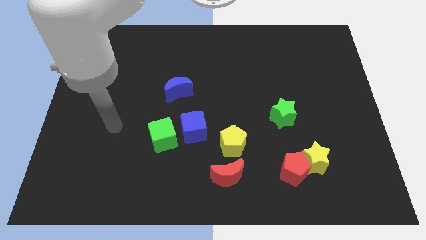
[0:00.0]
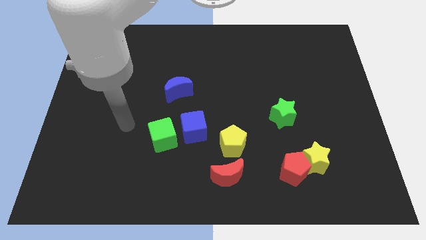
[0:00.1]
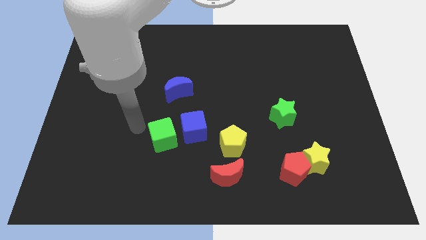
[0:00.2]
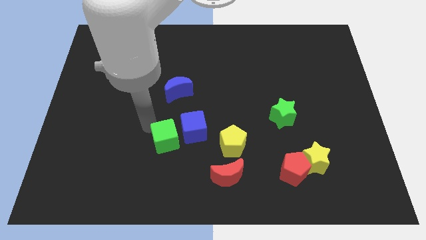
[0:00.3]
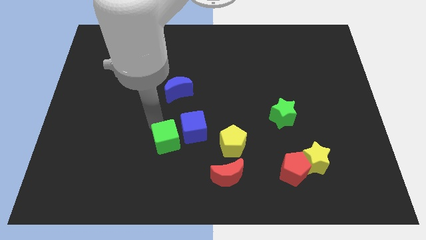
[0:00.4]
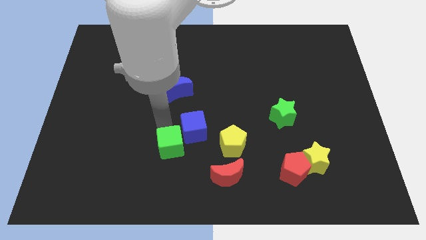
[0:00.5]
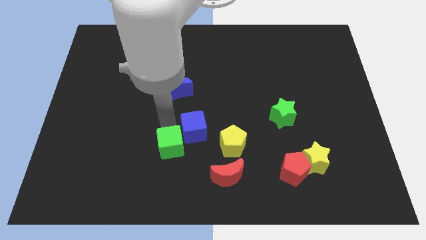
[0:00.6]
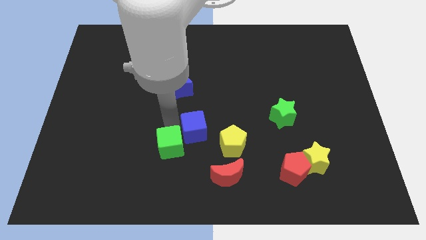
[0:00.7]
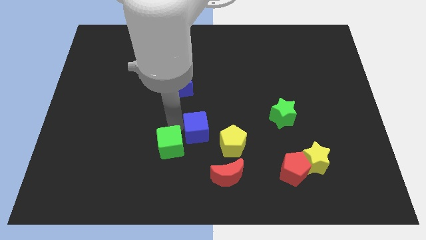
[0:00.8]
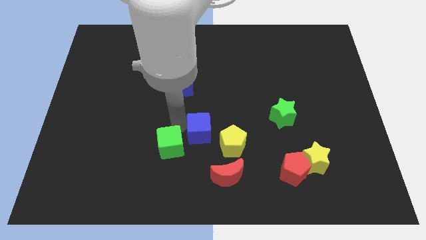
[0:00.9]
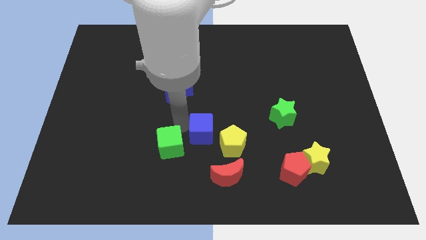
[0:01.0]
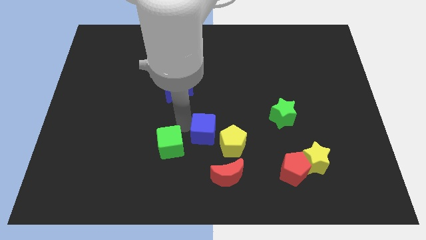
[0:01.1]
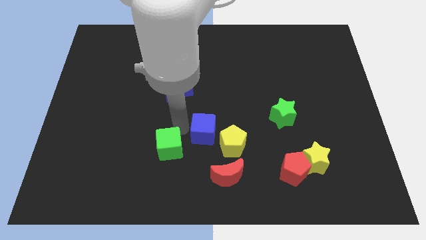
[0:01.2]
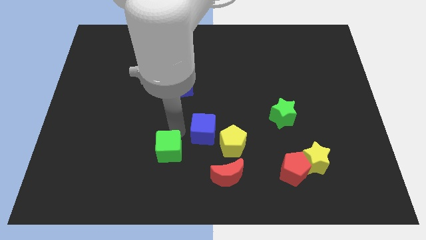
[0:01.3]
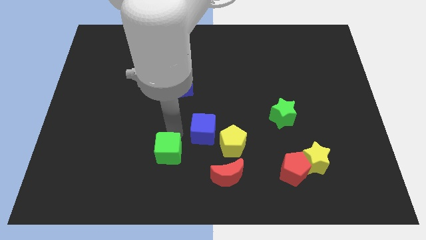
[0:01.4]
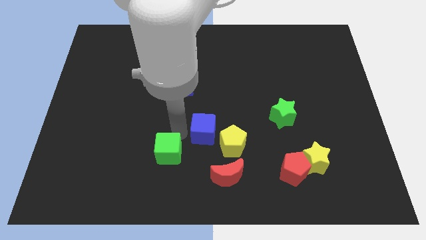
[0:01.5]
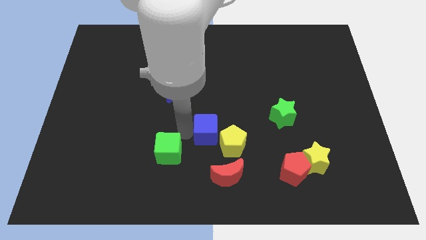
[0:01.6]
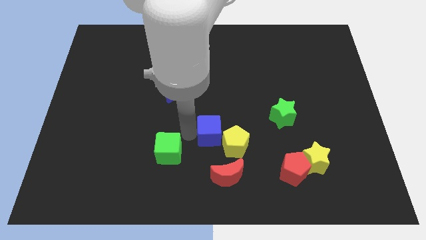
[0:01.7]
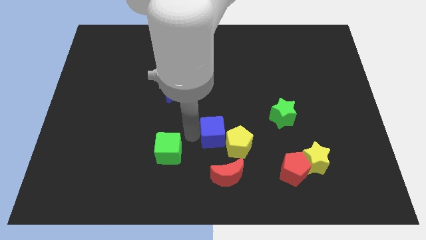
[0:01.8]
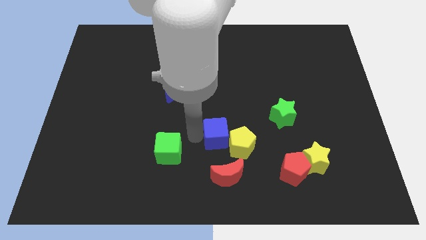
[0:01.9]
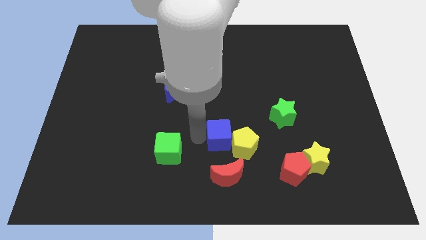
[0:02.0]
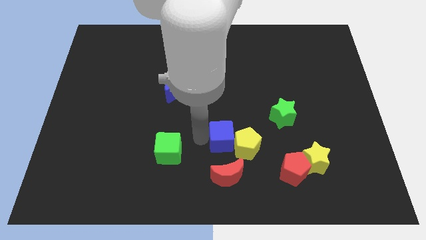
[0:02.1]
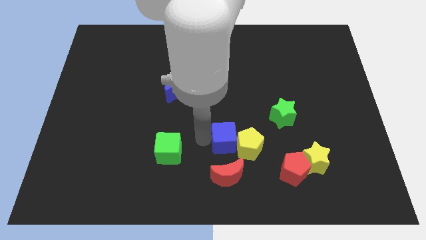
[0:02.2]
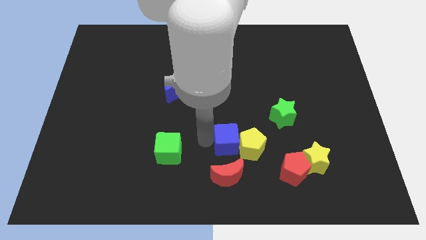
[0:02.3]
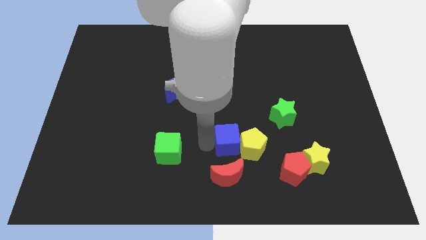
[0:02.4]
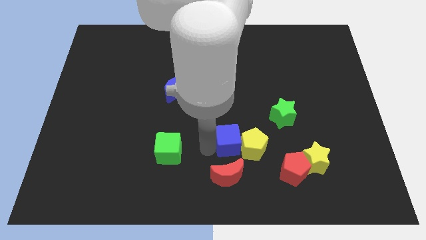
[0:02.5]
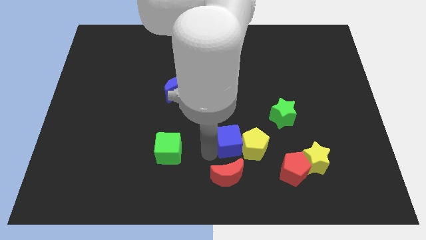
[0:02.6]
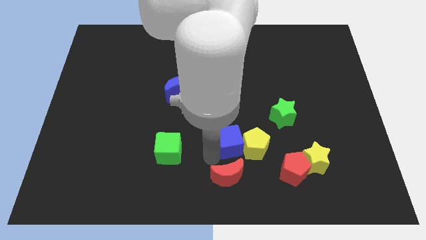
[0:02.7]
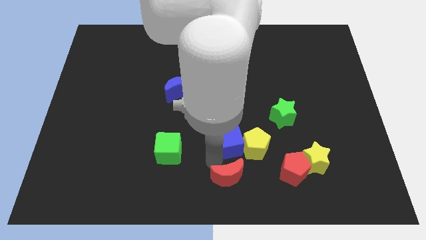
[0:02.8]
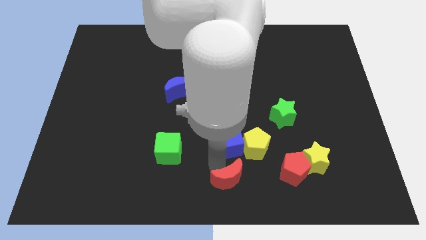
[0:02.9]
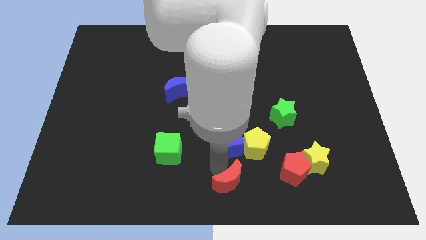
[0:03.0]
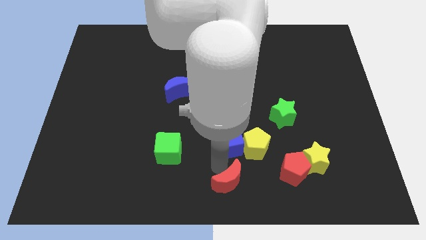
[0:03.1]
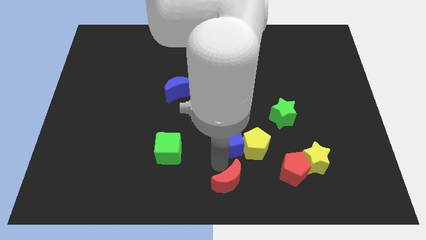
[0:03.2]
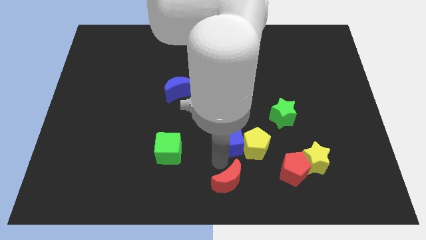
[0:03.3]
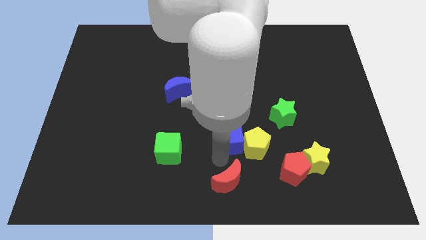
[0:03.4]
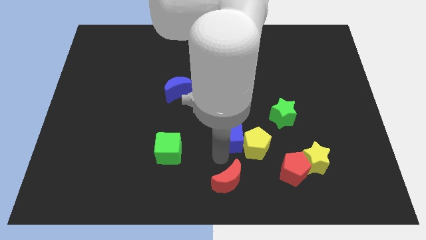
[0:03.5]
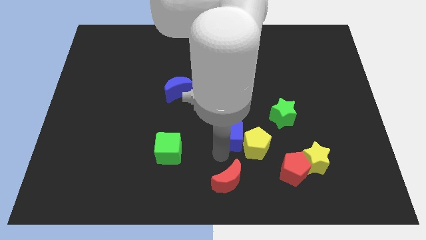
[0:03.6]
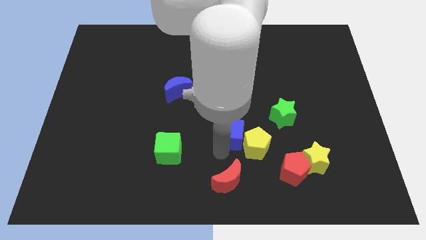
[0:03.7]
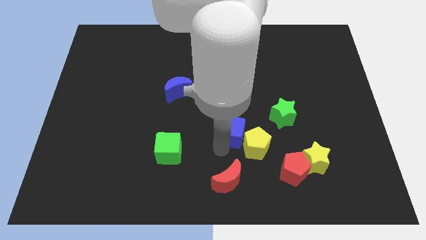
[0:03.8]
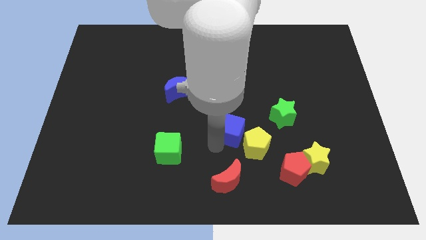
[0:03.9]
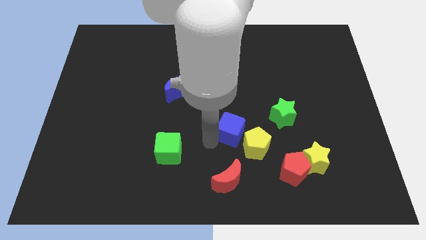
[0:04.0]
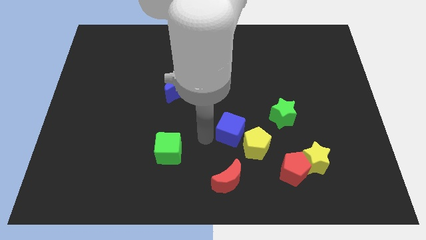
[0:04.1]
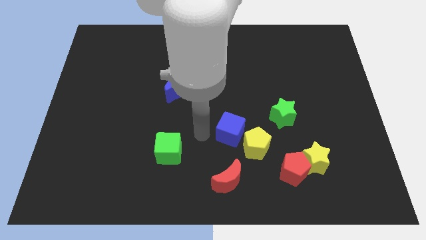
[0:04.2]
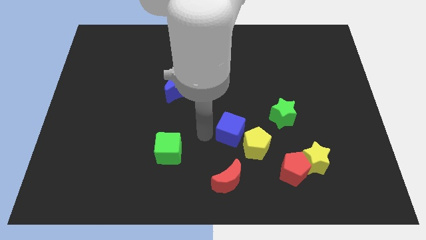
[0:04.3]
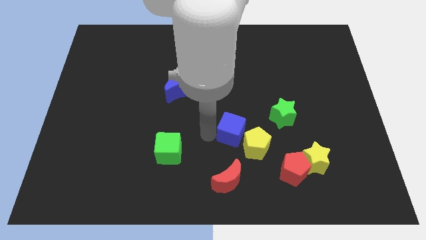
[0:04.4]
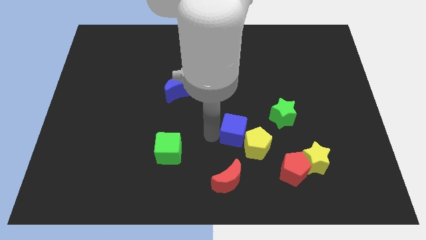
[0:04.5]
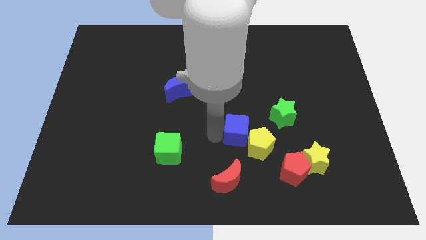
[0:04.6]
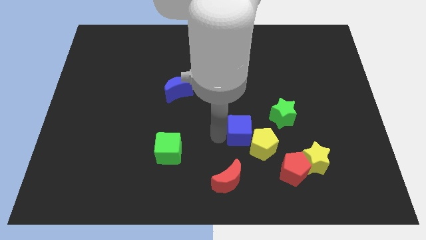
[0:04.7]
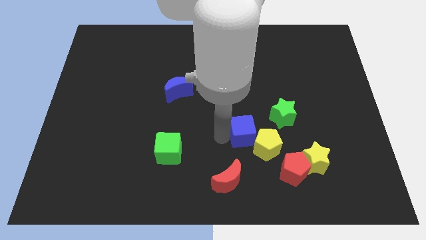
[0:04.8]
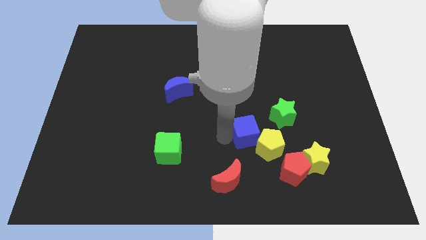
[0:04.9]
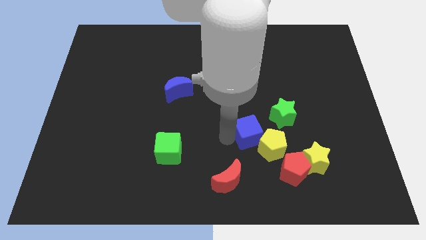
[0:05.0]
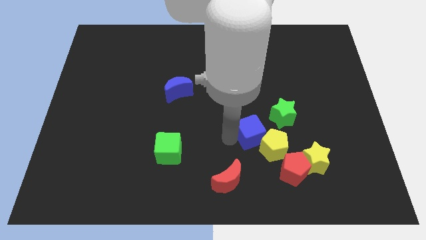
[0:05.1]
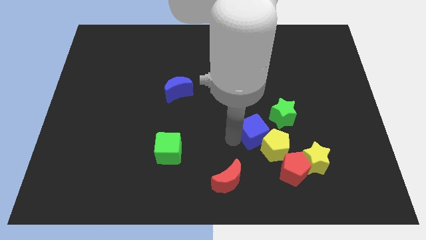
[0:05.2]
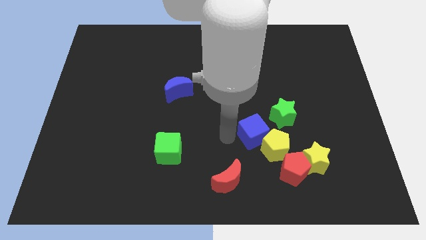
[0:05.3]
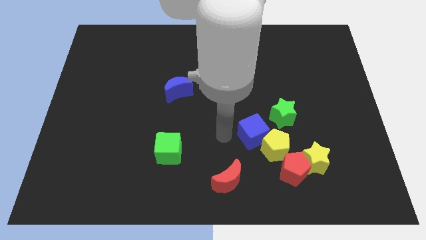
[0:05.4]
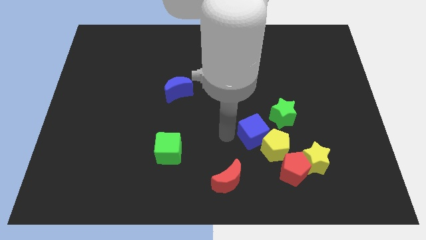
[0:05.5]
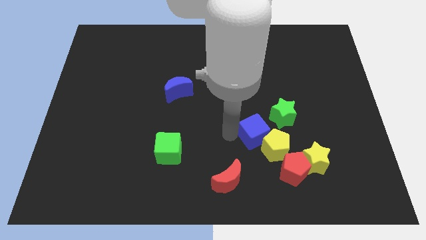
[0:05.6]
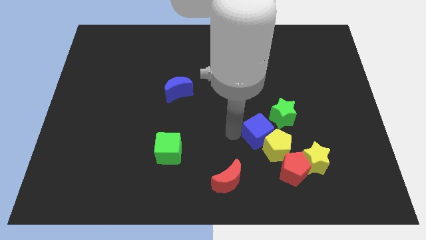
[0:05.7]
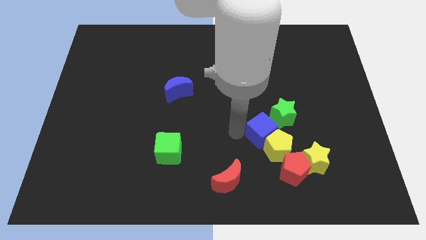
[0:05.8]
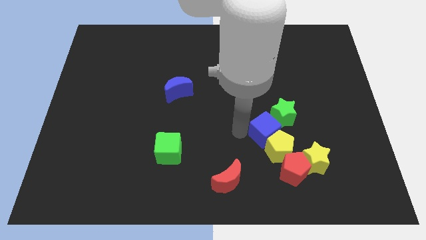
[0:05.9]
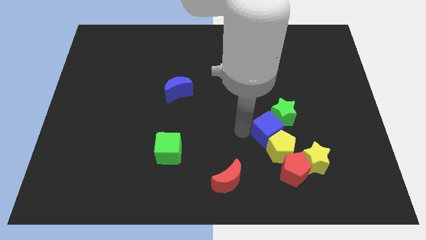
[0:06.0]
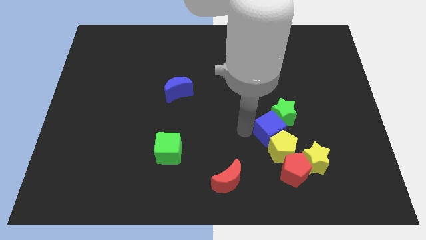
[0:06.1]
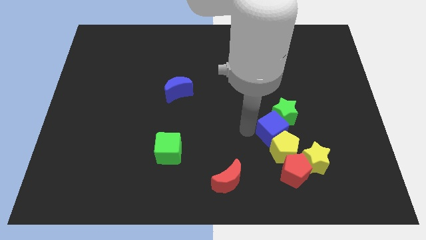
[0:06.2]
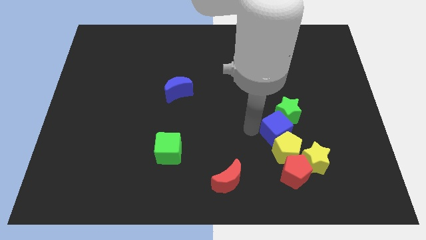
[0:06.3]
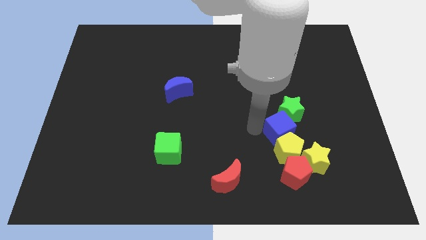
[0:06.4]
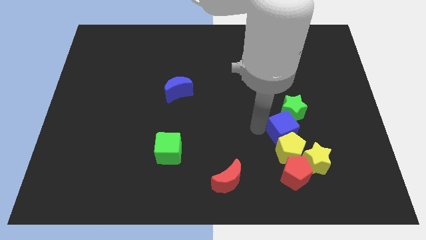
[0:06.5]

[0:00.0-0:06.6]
move the blue cube to the right

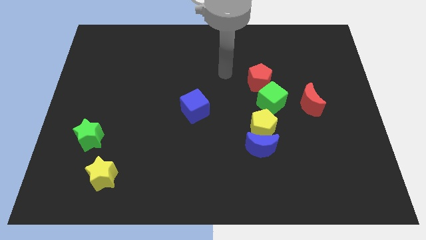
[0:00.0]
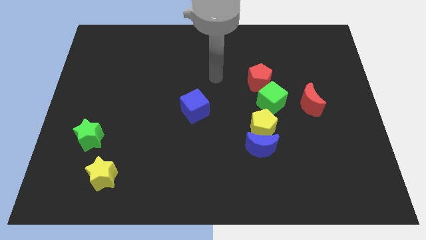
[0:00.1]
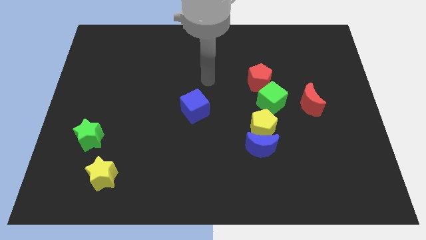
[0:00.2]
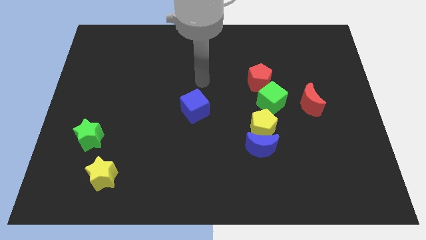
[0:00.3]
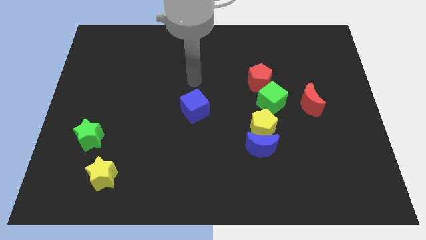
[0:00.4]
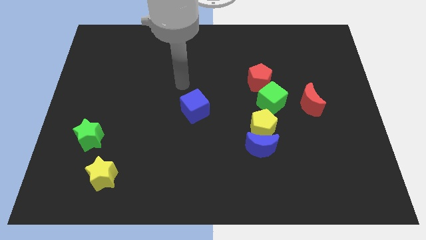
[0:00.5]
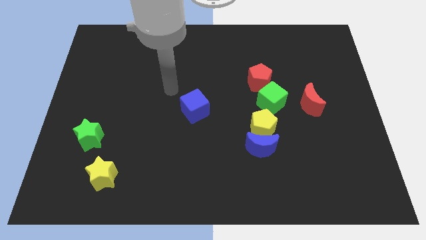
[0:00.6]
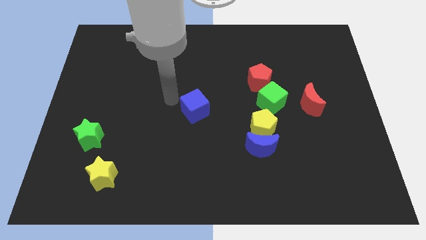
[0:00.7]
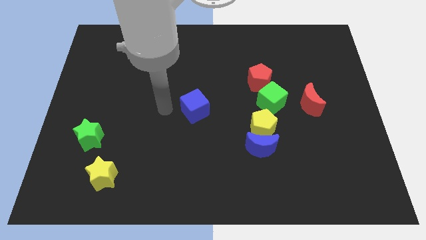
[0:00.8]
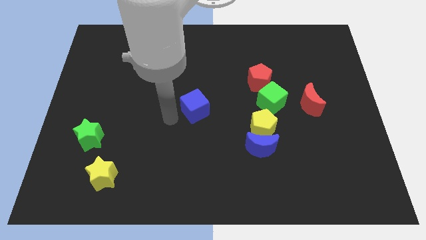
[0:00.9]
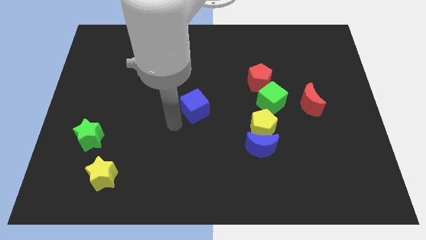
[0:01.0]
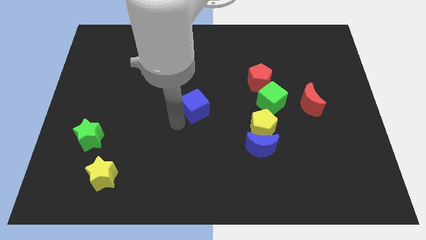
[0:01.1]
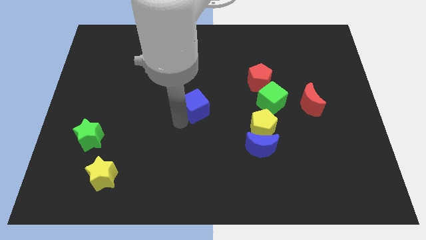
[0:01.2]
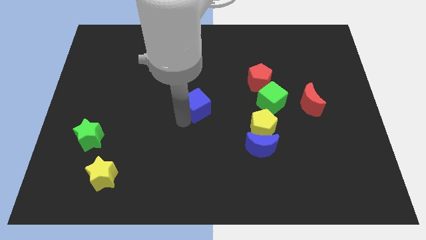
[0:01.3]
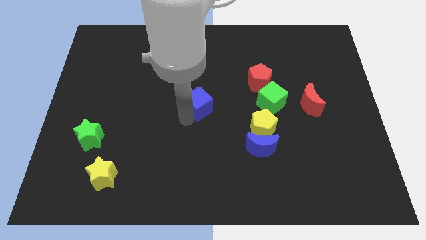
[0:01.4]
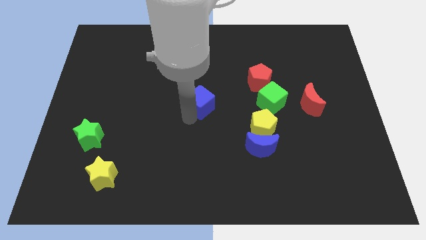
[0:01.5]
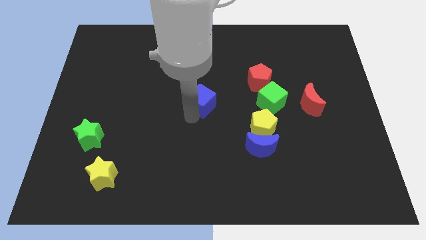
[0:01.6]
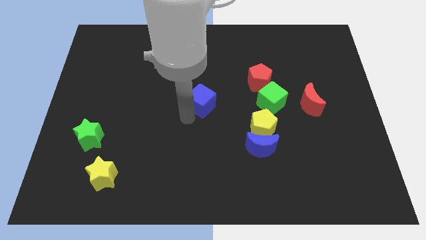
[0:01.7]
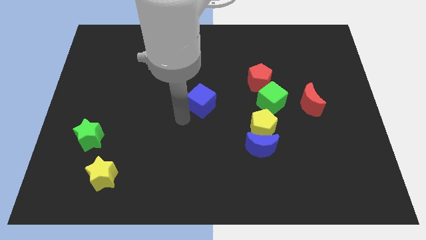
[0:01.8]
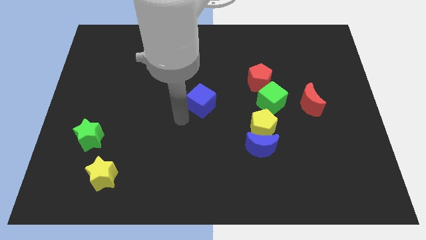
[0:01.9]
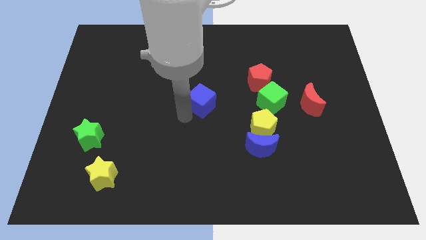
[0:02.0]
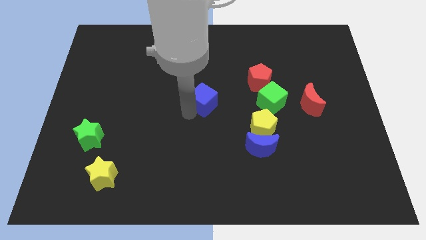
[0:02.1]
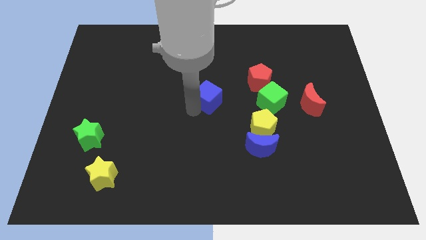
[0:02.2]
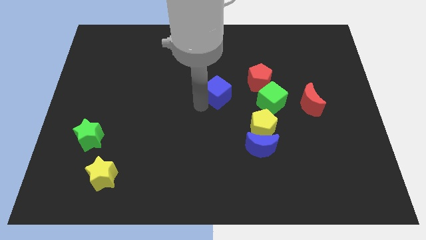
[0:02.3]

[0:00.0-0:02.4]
slightly move the blue cube upwards and then to the right
